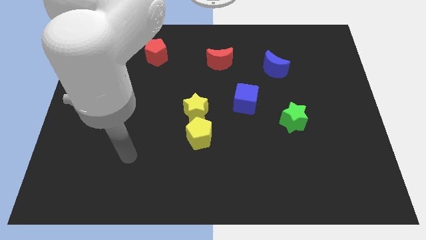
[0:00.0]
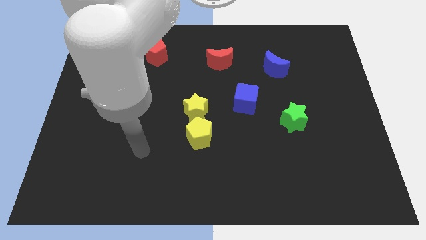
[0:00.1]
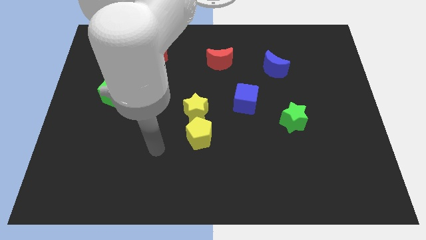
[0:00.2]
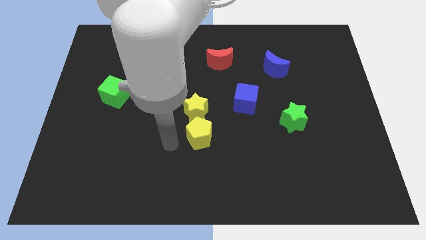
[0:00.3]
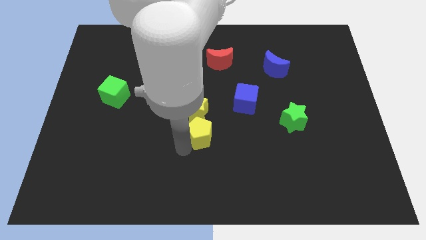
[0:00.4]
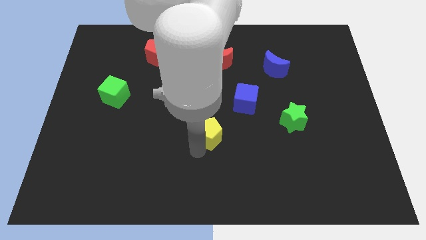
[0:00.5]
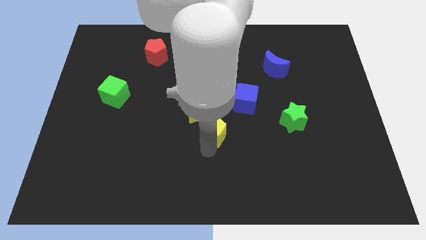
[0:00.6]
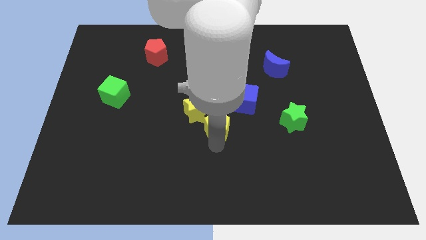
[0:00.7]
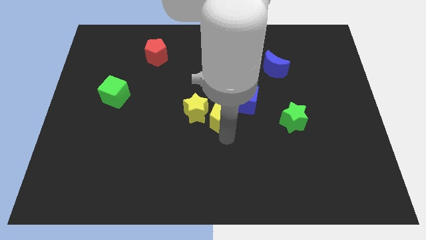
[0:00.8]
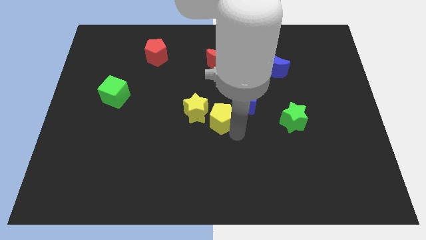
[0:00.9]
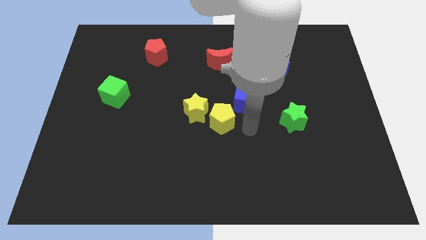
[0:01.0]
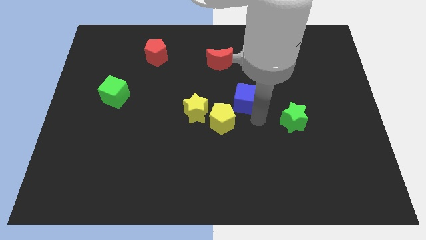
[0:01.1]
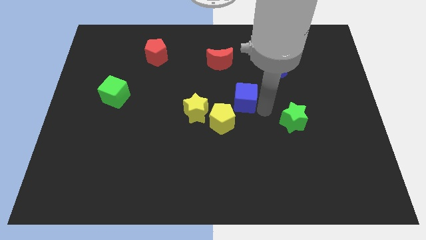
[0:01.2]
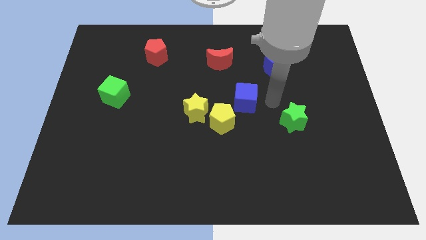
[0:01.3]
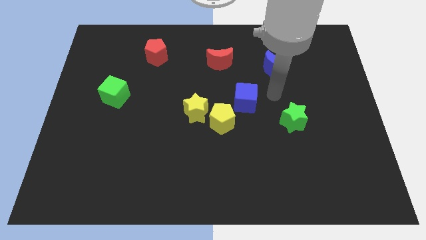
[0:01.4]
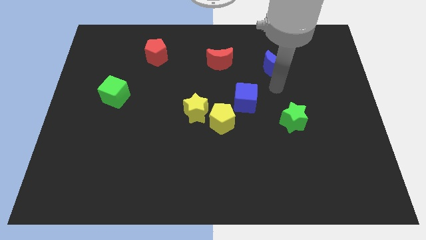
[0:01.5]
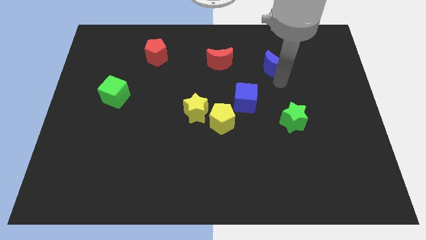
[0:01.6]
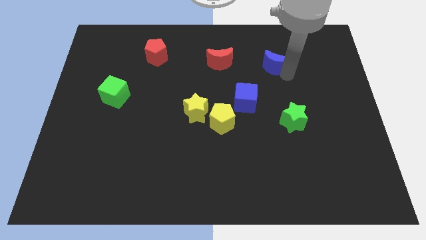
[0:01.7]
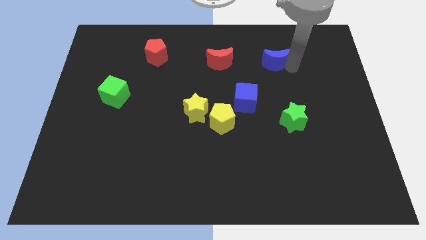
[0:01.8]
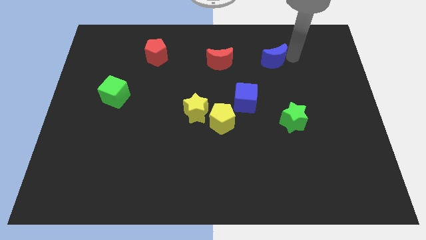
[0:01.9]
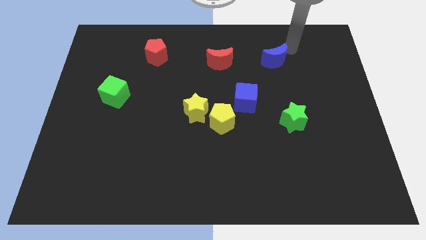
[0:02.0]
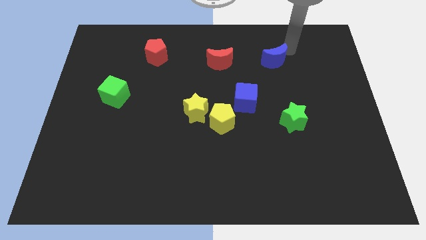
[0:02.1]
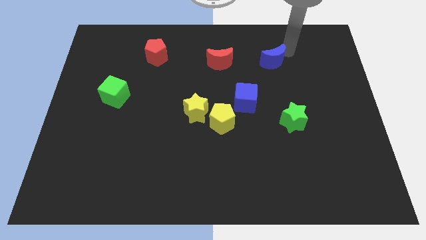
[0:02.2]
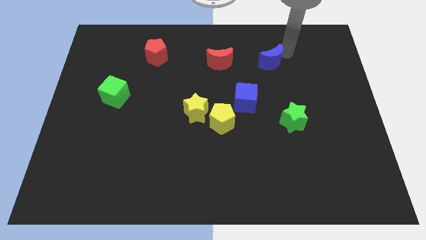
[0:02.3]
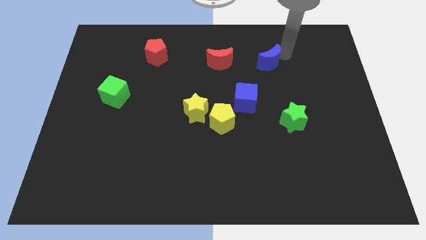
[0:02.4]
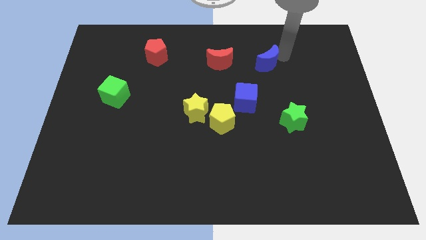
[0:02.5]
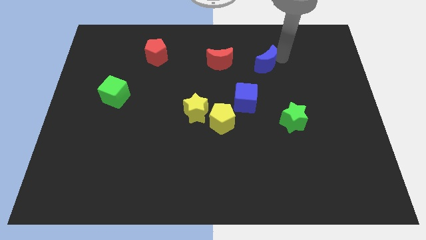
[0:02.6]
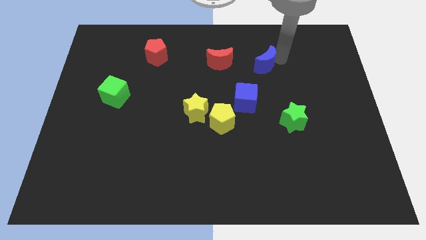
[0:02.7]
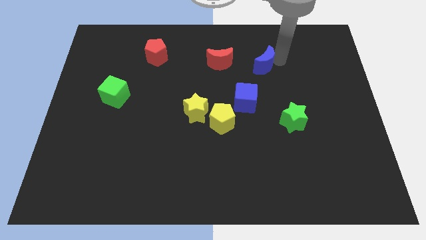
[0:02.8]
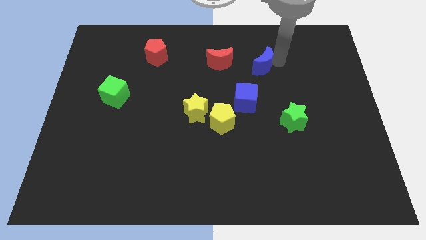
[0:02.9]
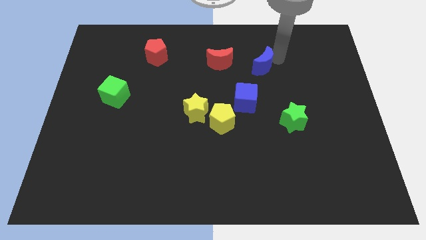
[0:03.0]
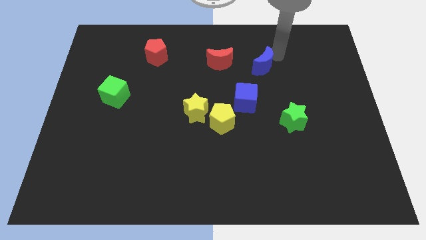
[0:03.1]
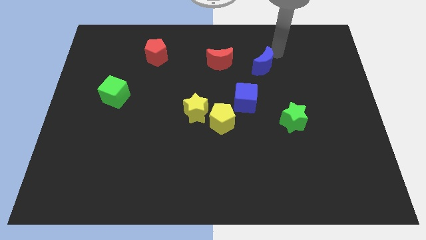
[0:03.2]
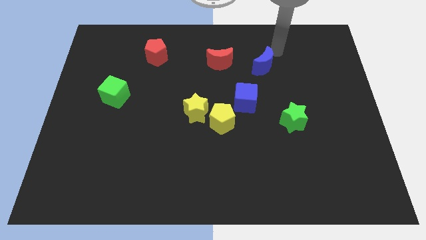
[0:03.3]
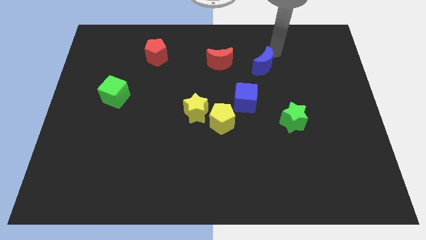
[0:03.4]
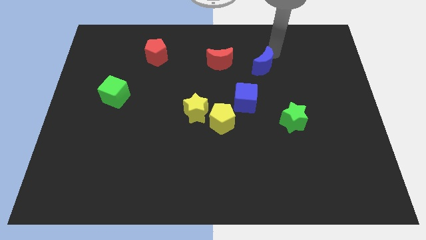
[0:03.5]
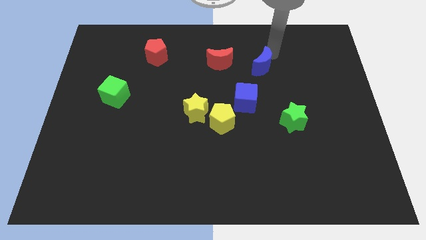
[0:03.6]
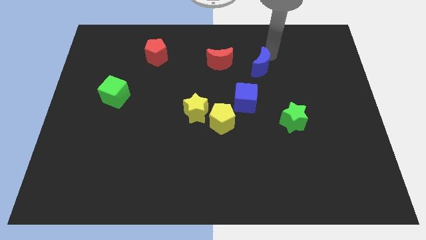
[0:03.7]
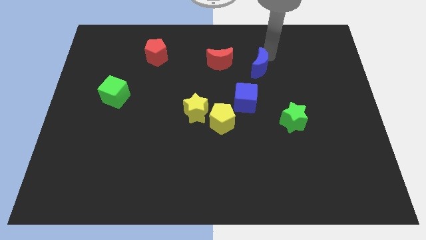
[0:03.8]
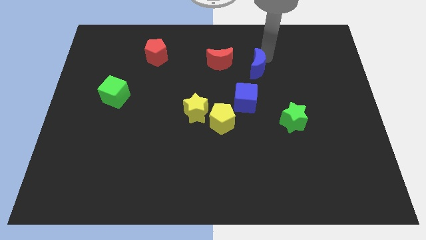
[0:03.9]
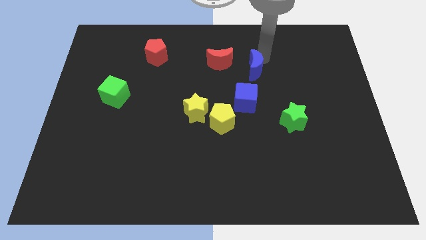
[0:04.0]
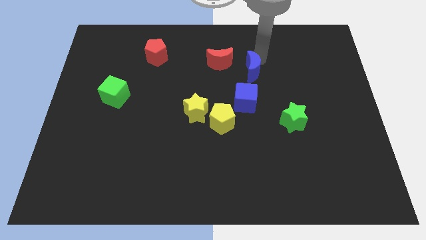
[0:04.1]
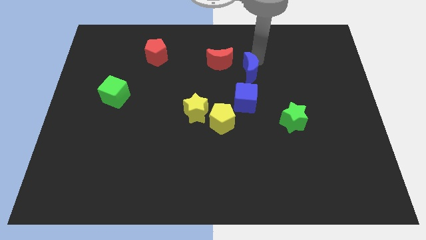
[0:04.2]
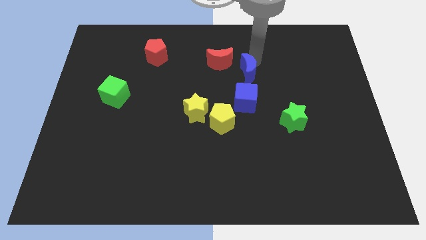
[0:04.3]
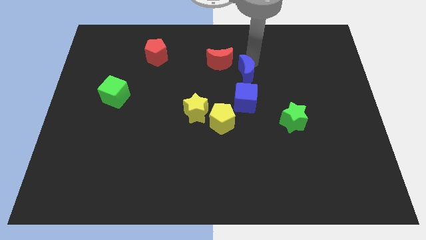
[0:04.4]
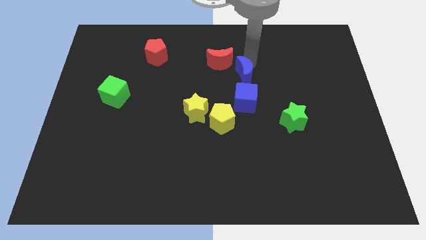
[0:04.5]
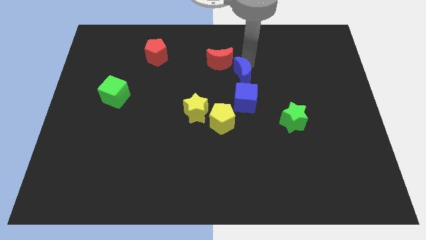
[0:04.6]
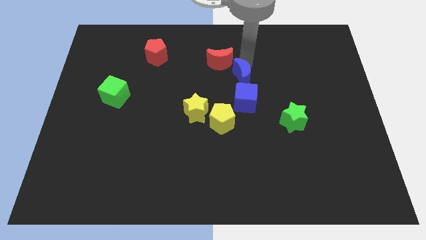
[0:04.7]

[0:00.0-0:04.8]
move the blue moon a little down and to the left diagonally

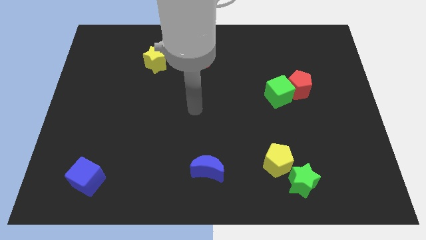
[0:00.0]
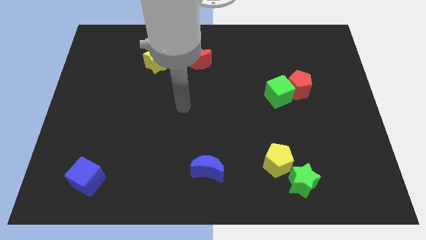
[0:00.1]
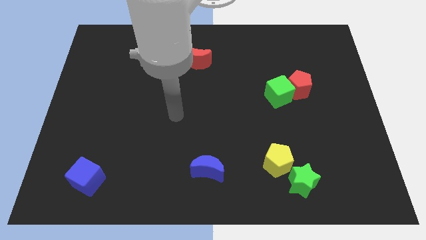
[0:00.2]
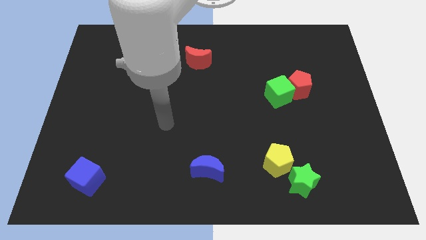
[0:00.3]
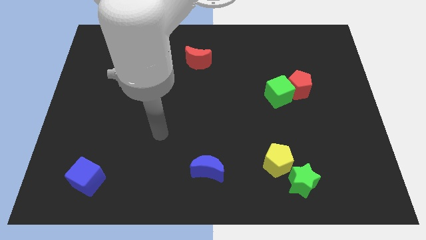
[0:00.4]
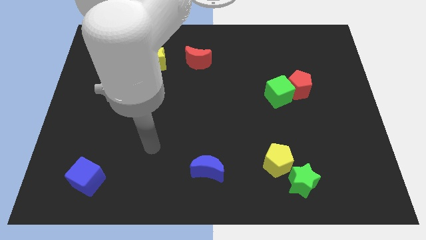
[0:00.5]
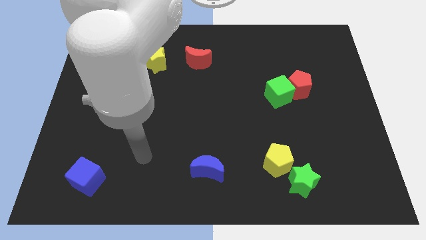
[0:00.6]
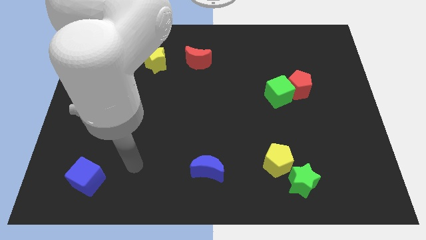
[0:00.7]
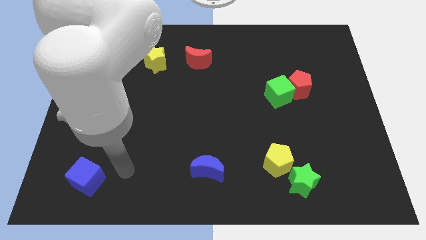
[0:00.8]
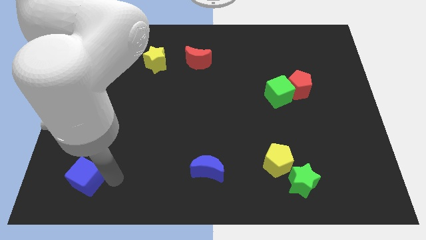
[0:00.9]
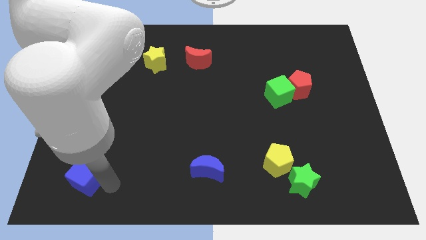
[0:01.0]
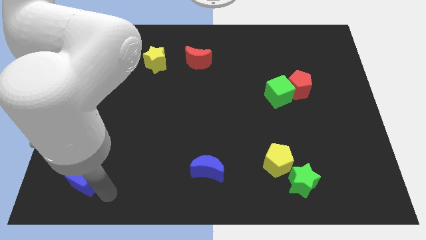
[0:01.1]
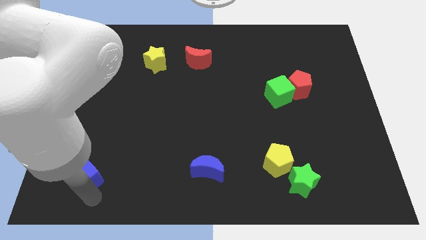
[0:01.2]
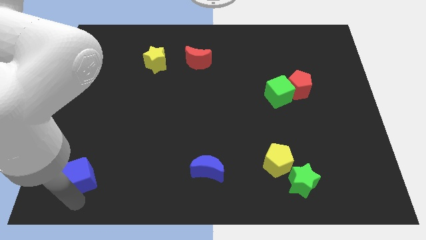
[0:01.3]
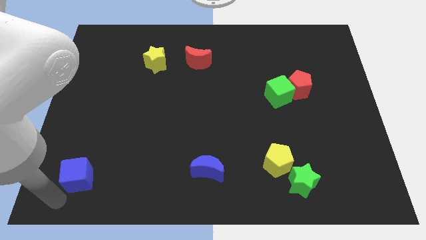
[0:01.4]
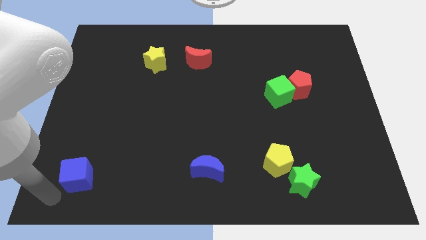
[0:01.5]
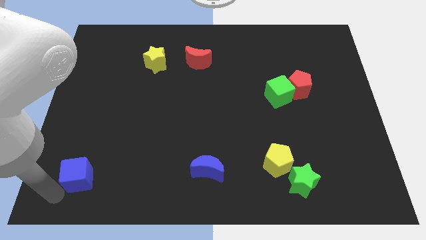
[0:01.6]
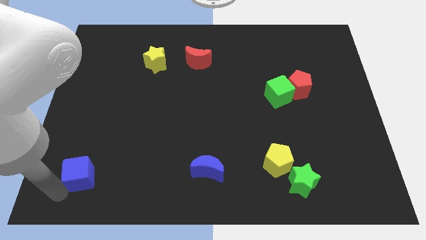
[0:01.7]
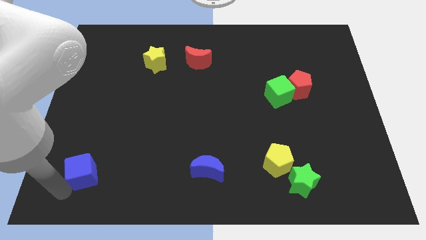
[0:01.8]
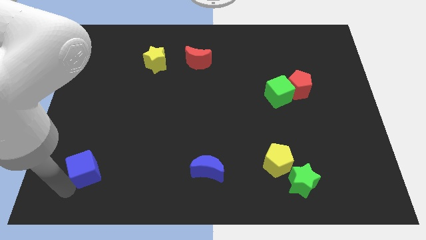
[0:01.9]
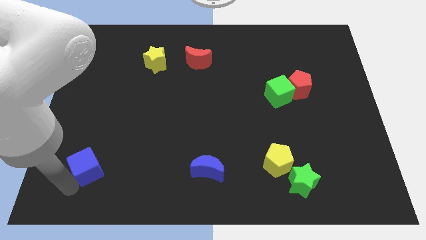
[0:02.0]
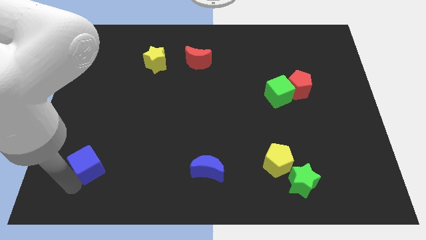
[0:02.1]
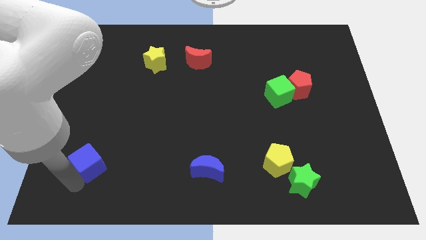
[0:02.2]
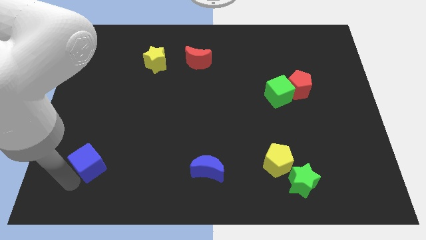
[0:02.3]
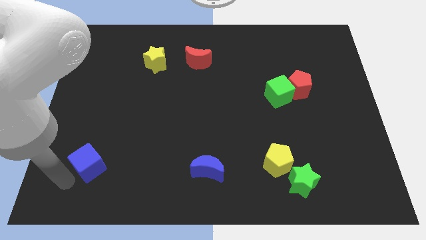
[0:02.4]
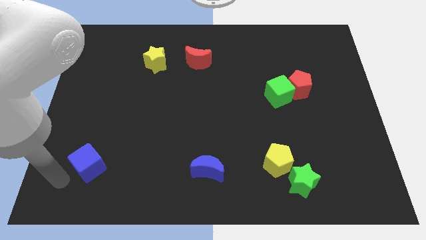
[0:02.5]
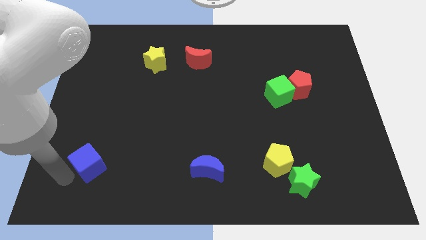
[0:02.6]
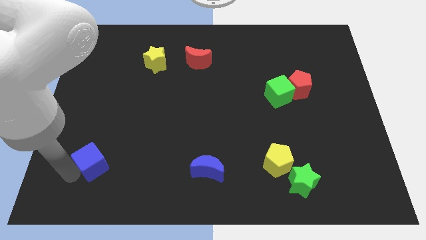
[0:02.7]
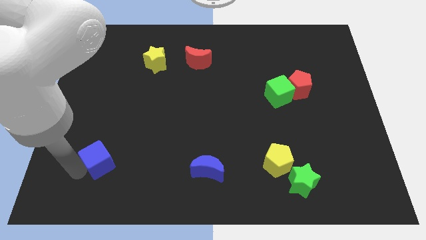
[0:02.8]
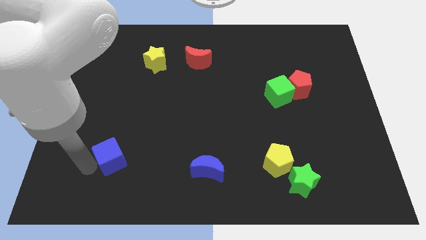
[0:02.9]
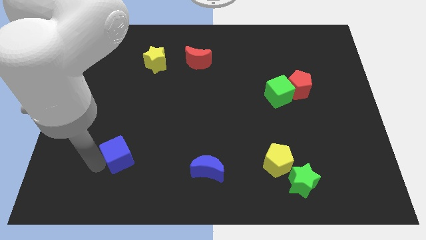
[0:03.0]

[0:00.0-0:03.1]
move the blue cube up and right a bit
